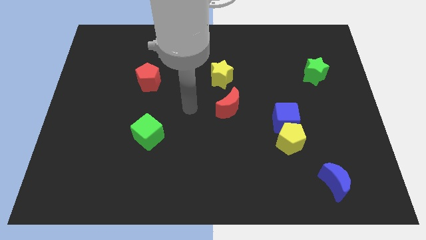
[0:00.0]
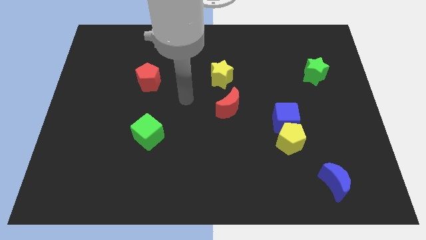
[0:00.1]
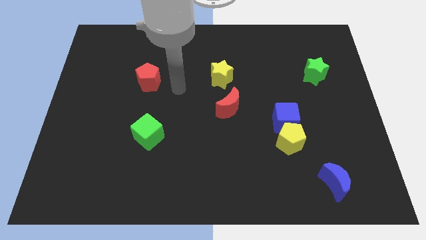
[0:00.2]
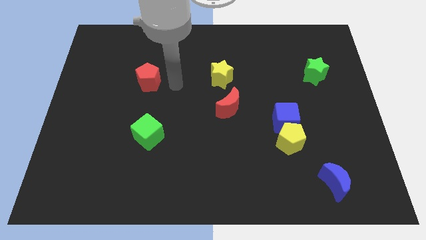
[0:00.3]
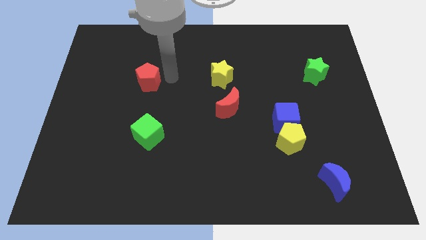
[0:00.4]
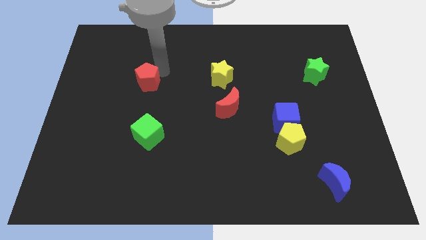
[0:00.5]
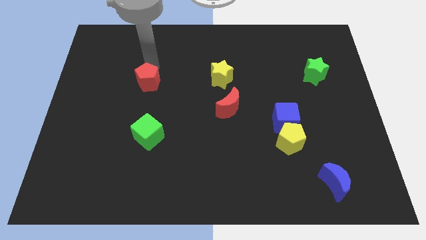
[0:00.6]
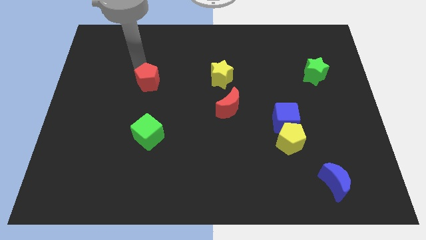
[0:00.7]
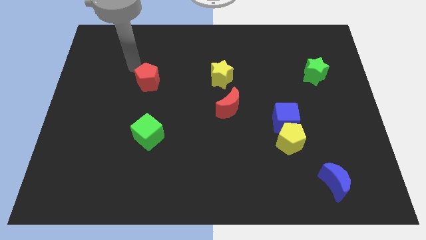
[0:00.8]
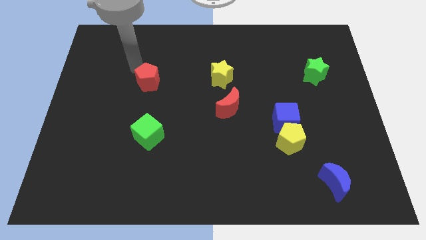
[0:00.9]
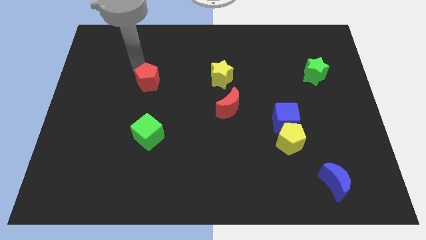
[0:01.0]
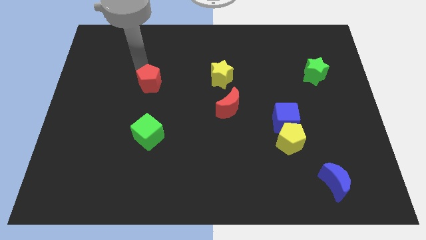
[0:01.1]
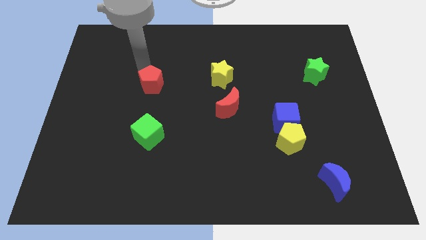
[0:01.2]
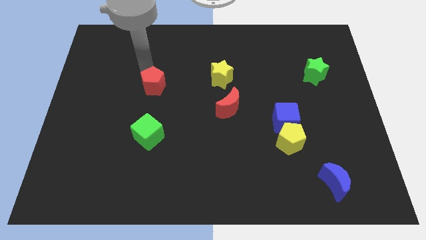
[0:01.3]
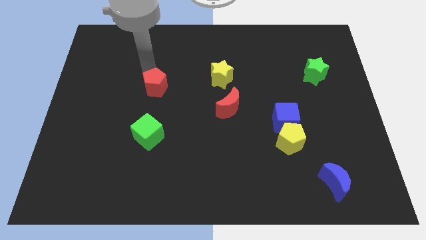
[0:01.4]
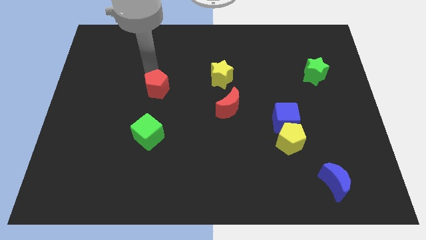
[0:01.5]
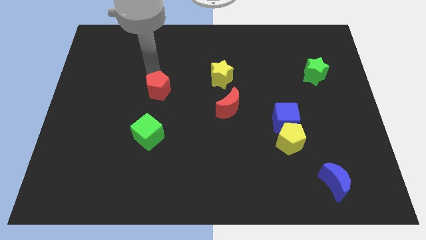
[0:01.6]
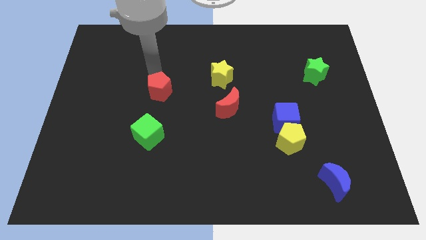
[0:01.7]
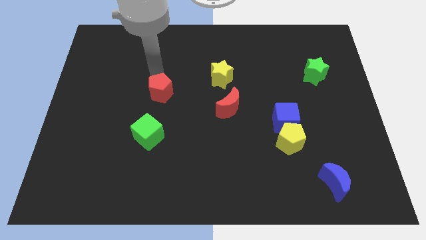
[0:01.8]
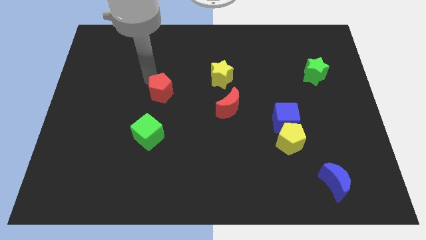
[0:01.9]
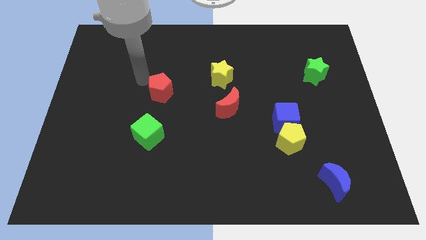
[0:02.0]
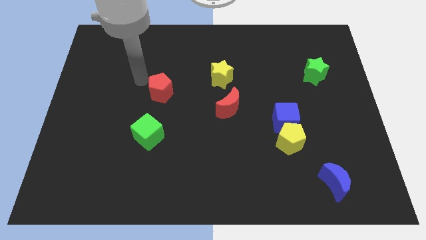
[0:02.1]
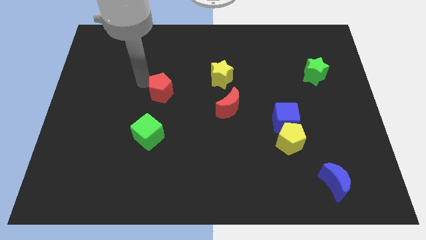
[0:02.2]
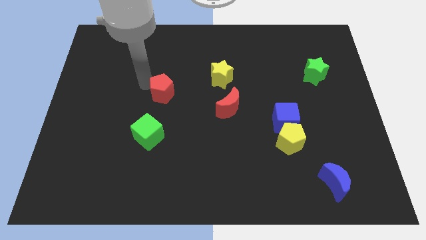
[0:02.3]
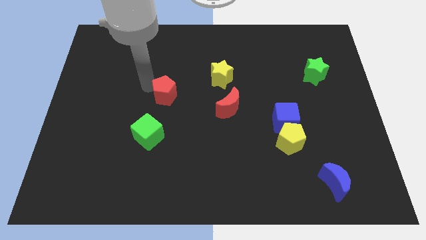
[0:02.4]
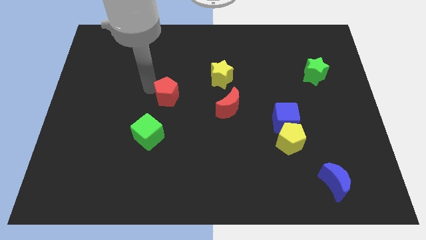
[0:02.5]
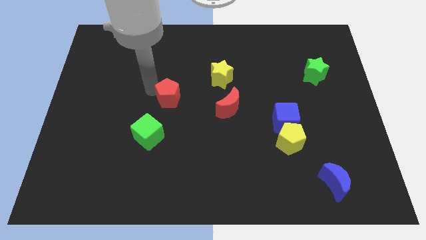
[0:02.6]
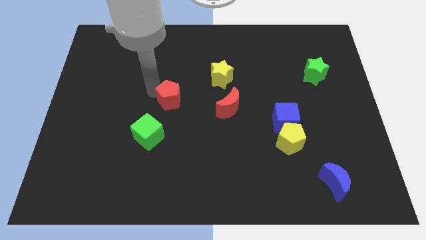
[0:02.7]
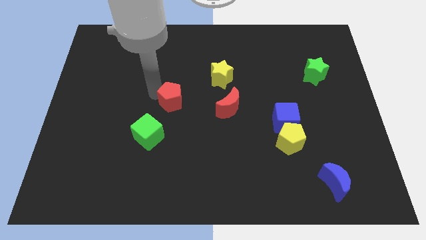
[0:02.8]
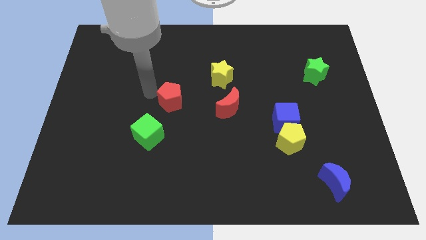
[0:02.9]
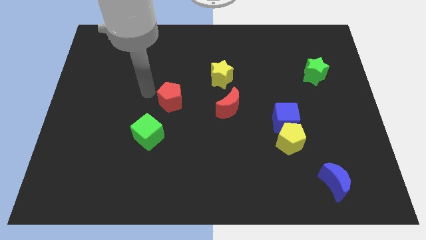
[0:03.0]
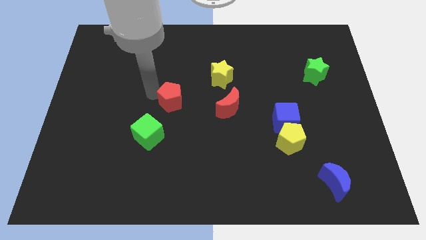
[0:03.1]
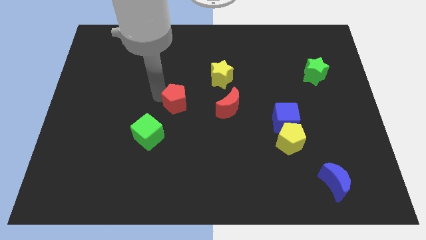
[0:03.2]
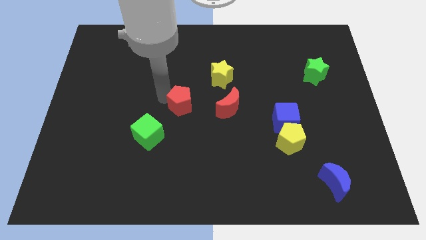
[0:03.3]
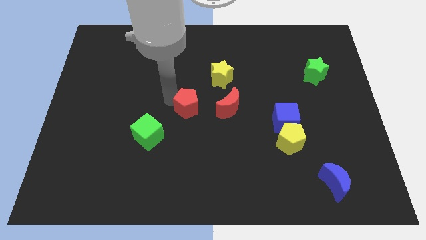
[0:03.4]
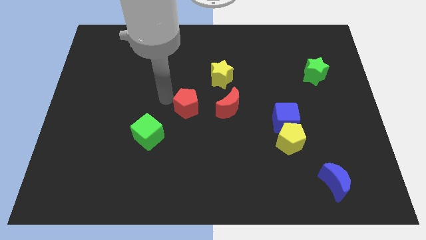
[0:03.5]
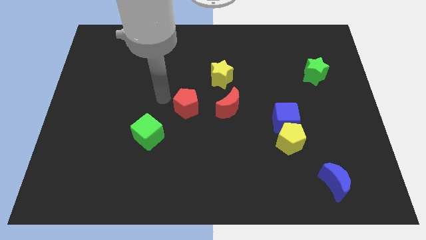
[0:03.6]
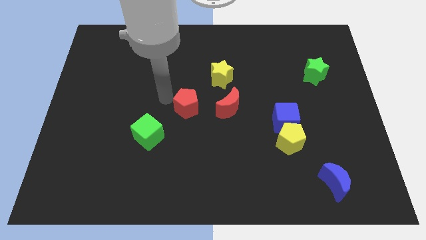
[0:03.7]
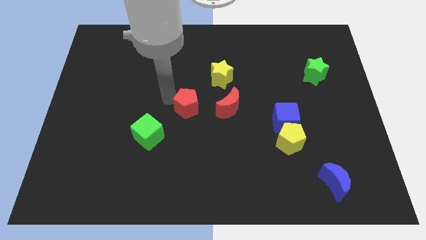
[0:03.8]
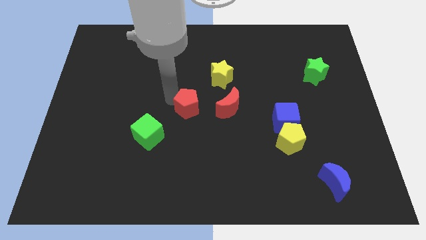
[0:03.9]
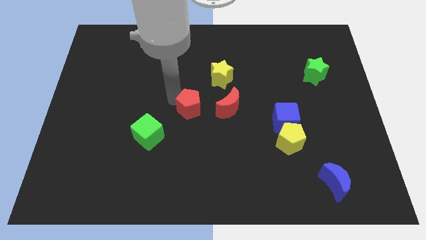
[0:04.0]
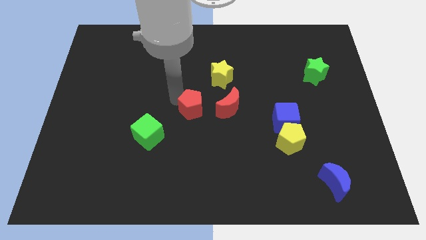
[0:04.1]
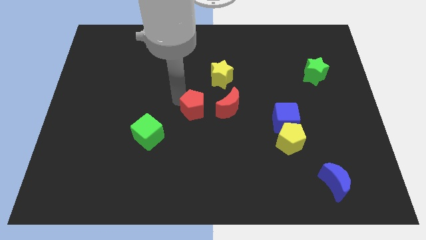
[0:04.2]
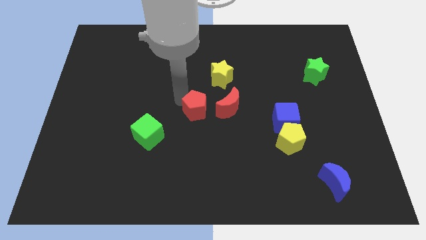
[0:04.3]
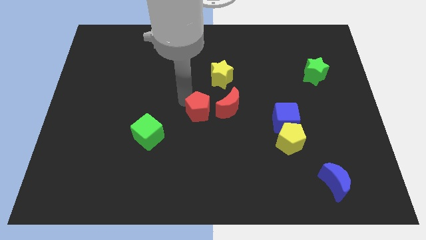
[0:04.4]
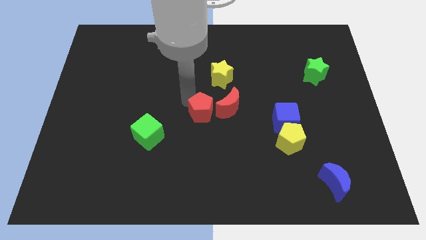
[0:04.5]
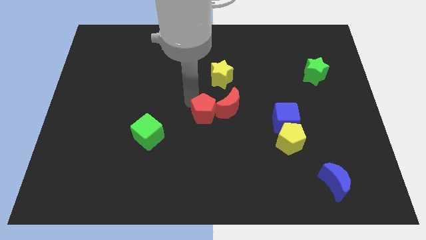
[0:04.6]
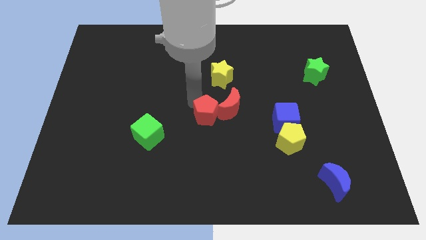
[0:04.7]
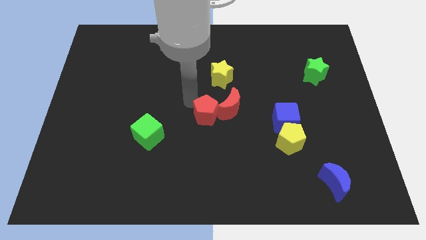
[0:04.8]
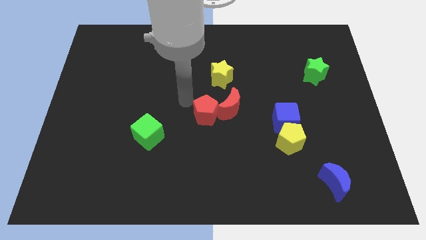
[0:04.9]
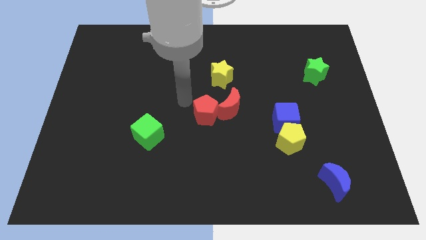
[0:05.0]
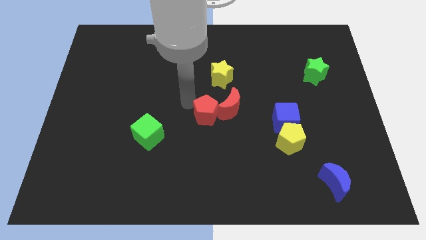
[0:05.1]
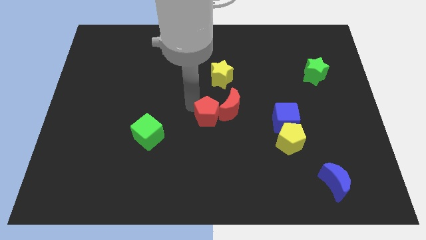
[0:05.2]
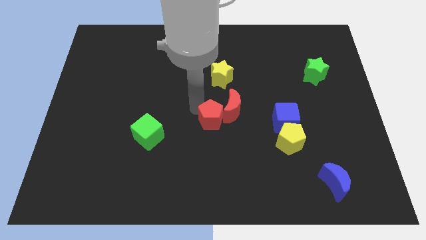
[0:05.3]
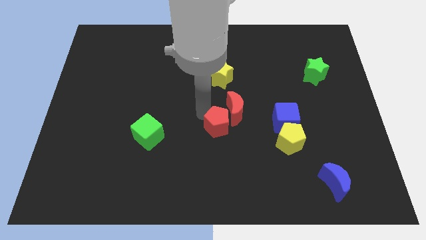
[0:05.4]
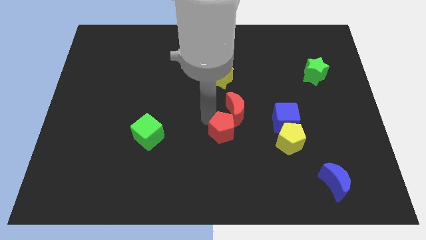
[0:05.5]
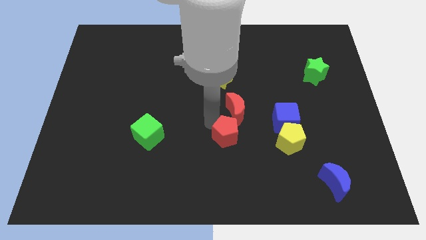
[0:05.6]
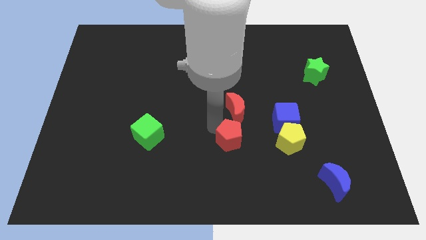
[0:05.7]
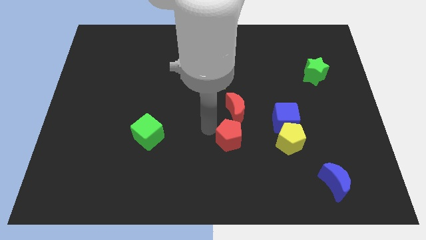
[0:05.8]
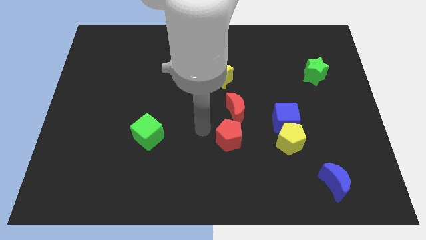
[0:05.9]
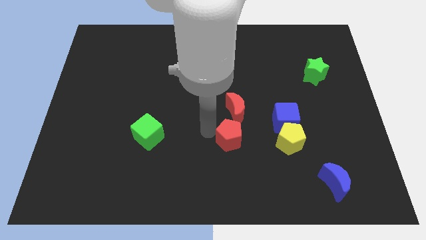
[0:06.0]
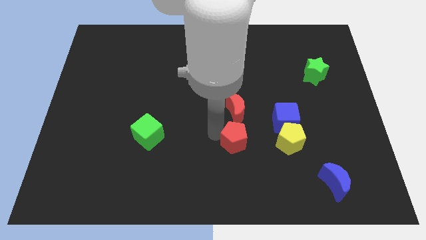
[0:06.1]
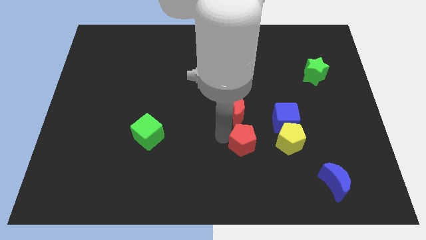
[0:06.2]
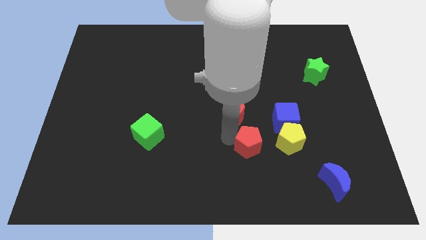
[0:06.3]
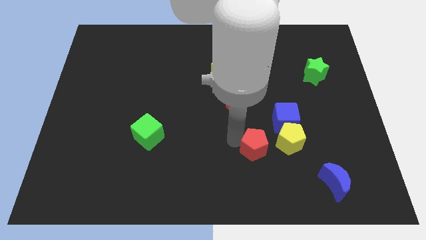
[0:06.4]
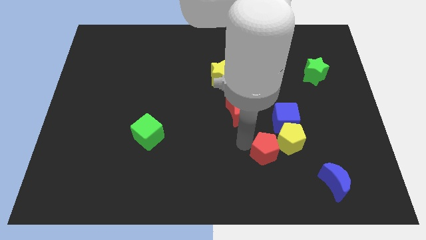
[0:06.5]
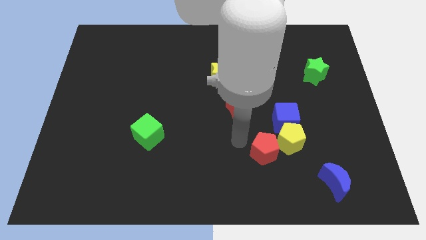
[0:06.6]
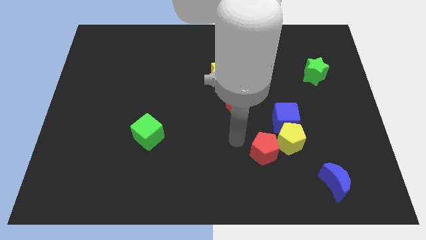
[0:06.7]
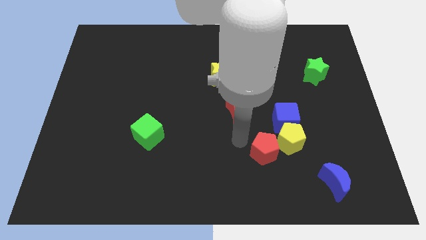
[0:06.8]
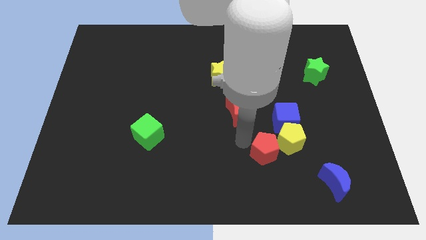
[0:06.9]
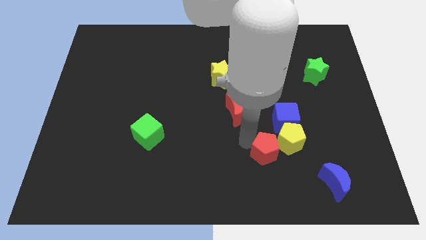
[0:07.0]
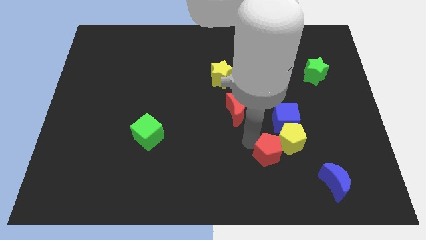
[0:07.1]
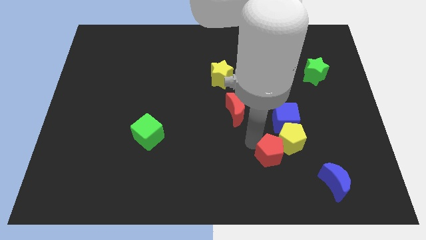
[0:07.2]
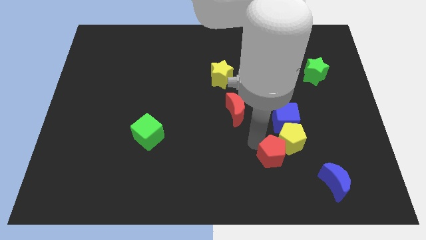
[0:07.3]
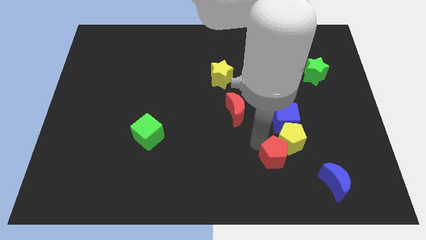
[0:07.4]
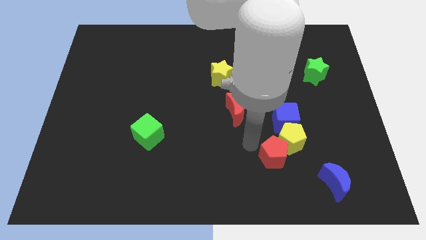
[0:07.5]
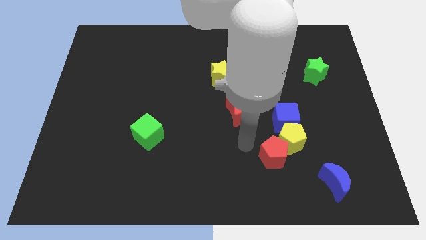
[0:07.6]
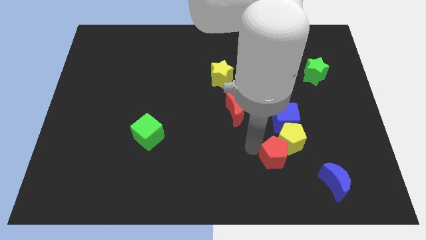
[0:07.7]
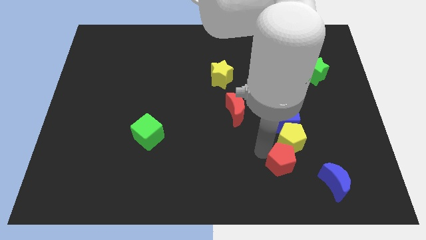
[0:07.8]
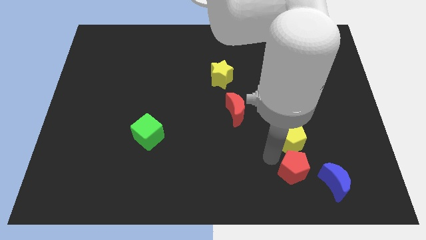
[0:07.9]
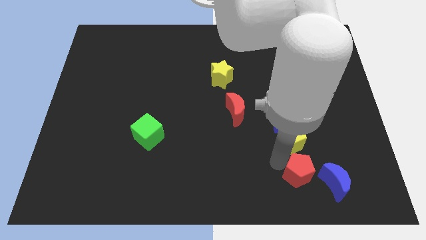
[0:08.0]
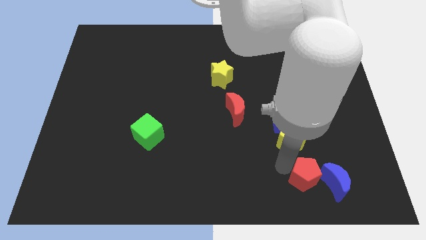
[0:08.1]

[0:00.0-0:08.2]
slide the red pentagon close to the blue moon
